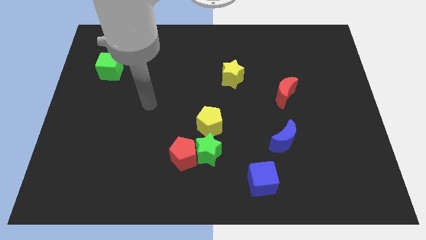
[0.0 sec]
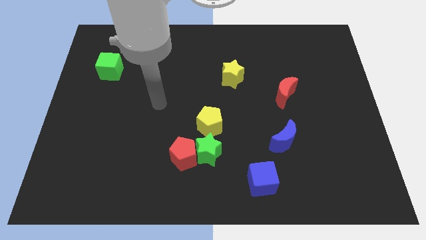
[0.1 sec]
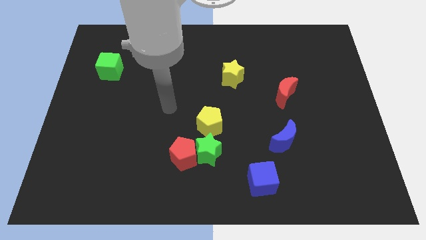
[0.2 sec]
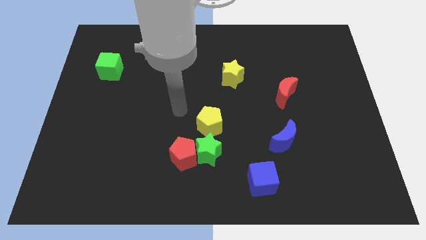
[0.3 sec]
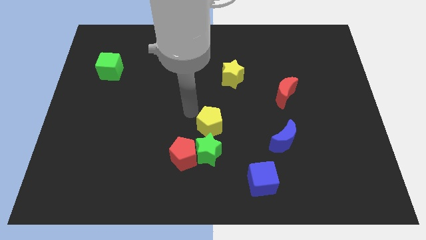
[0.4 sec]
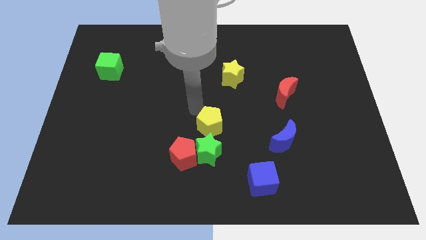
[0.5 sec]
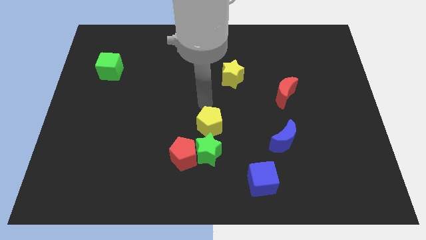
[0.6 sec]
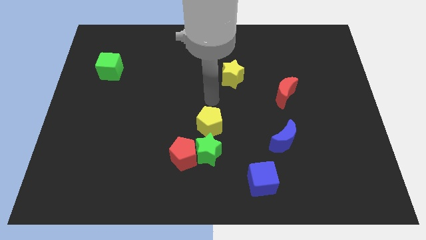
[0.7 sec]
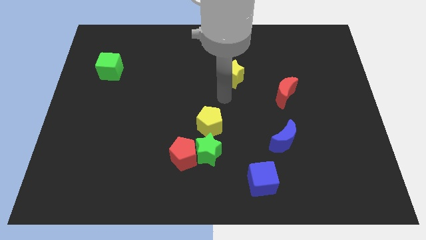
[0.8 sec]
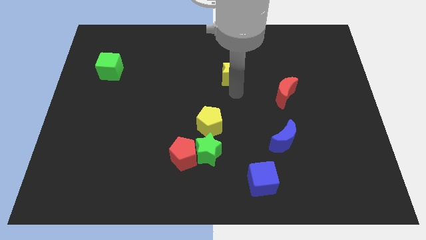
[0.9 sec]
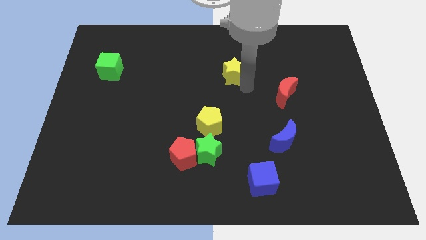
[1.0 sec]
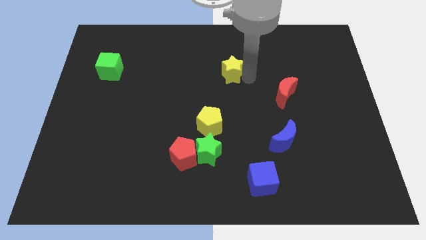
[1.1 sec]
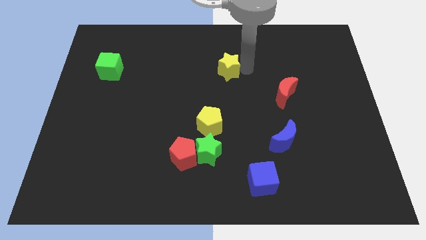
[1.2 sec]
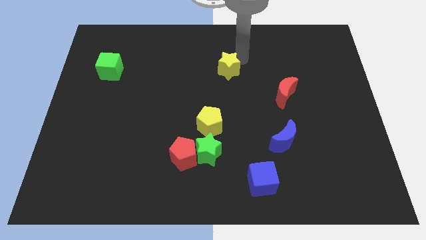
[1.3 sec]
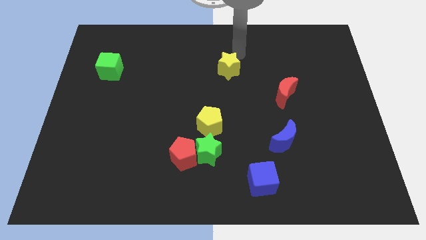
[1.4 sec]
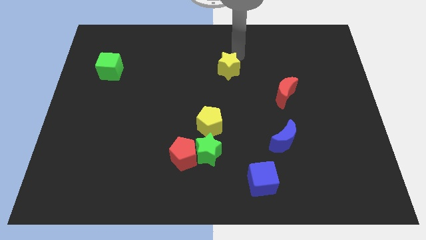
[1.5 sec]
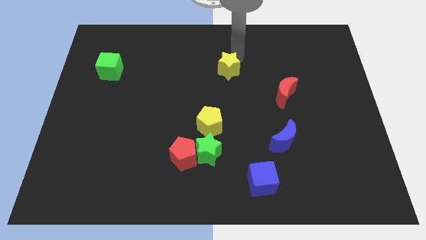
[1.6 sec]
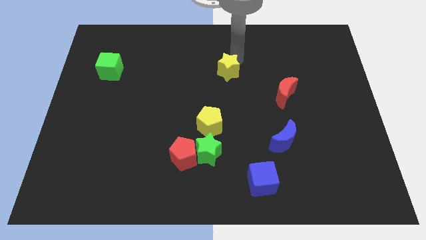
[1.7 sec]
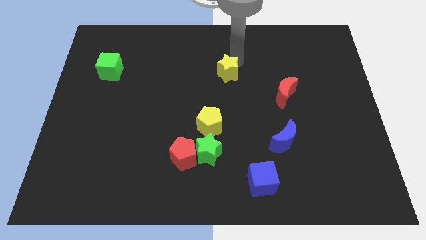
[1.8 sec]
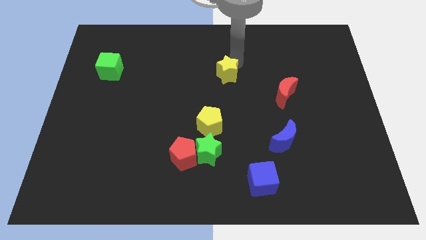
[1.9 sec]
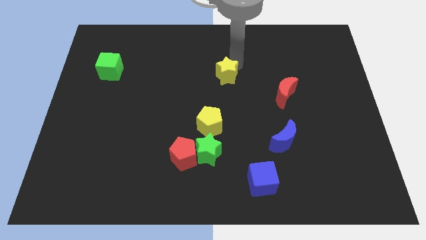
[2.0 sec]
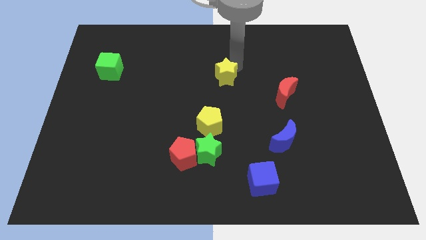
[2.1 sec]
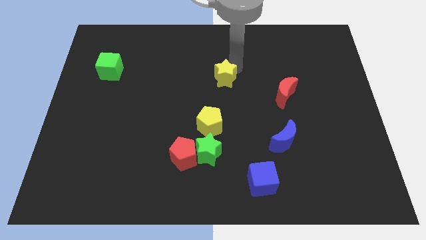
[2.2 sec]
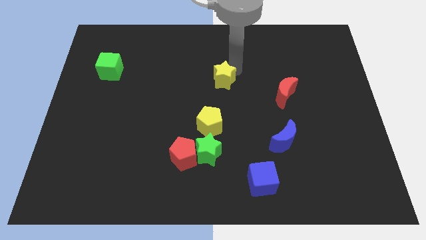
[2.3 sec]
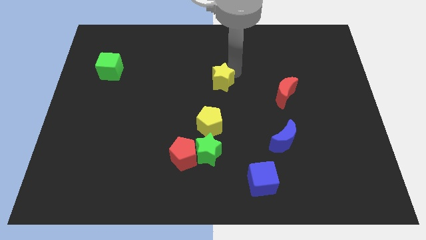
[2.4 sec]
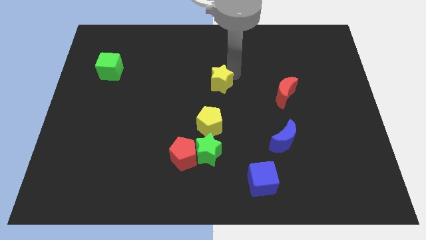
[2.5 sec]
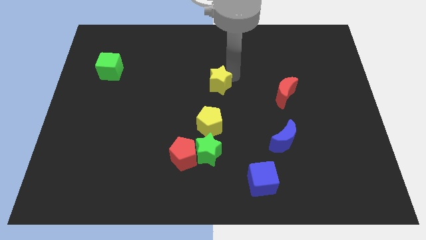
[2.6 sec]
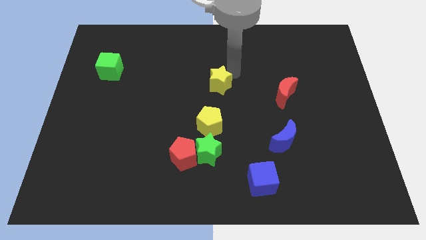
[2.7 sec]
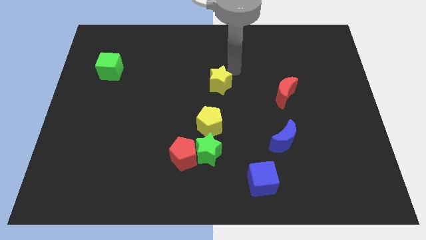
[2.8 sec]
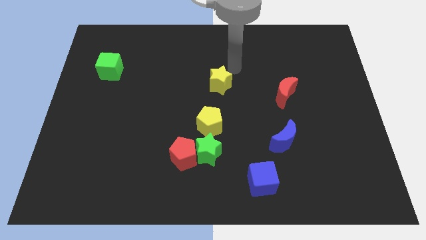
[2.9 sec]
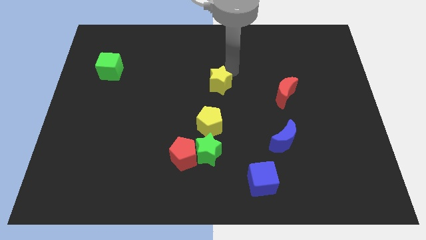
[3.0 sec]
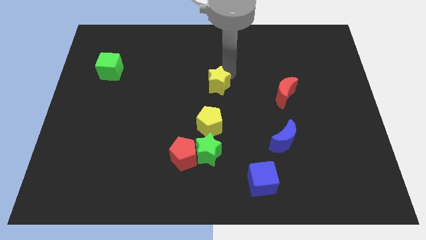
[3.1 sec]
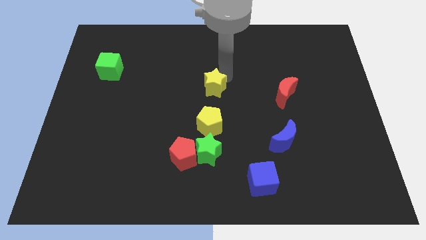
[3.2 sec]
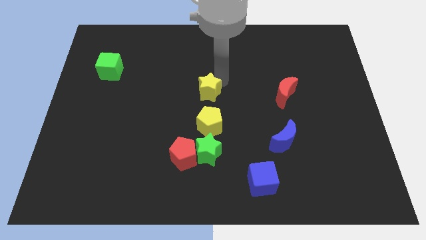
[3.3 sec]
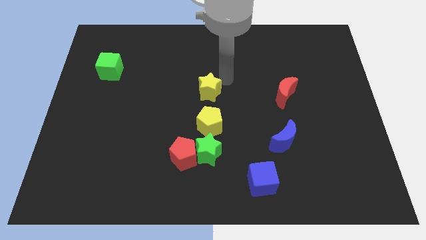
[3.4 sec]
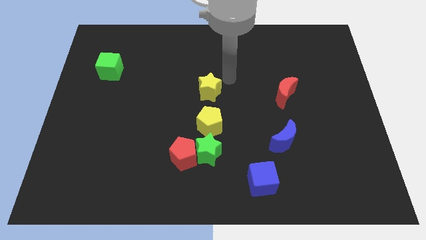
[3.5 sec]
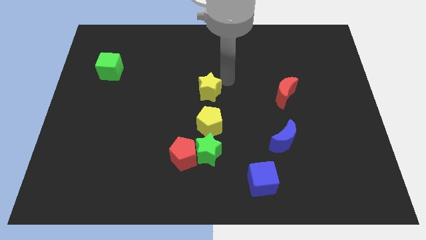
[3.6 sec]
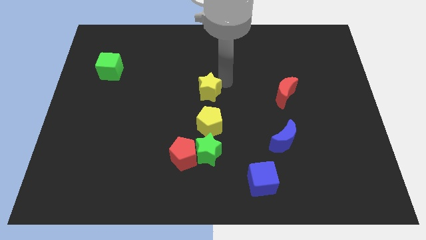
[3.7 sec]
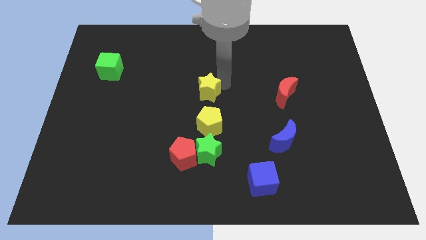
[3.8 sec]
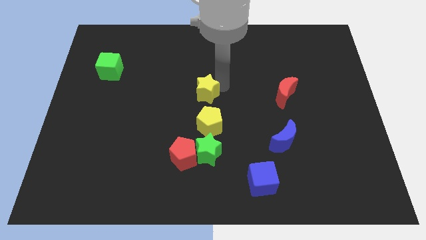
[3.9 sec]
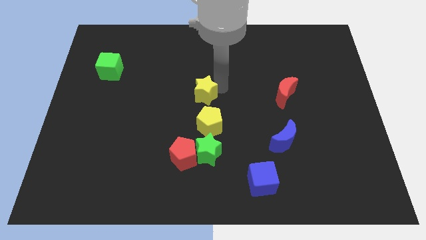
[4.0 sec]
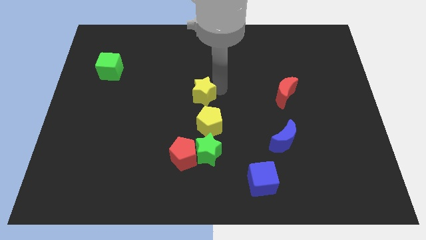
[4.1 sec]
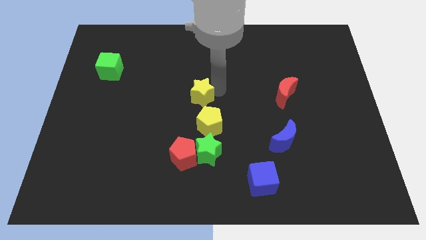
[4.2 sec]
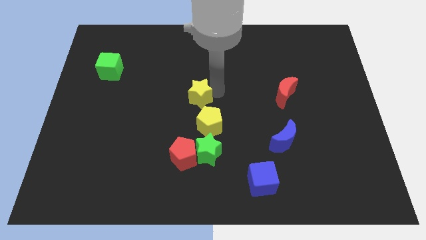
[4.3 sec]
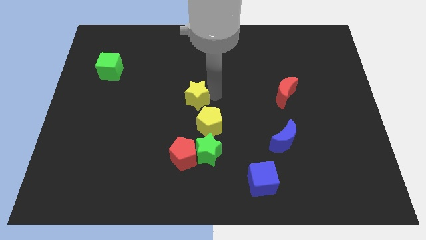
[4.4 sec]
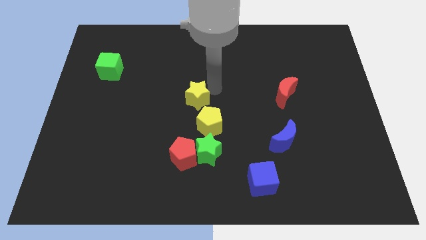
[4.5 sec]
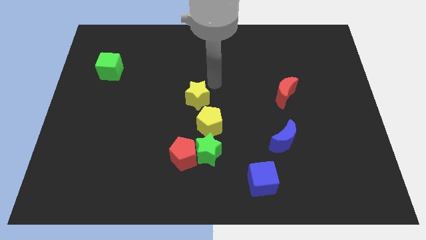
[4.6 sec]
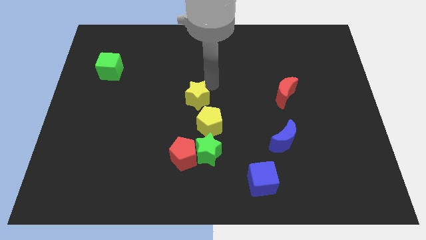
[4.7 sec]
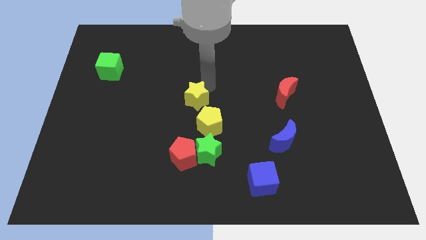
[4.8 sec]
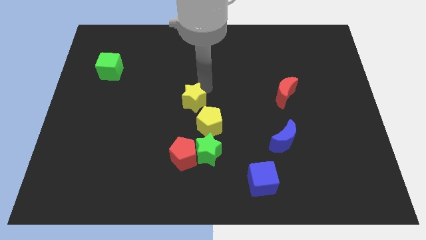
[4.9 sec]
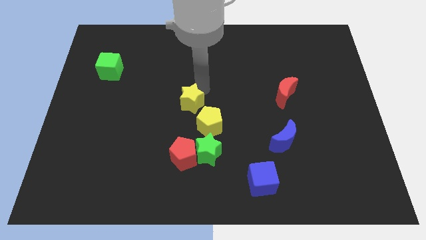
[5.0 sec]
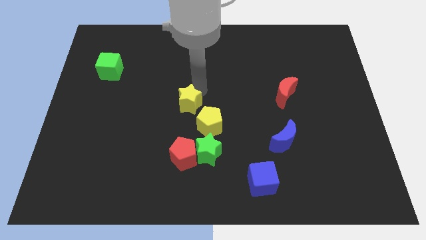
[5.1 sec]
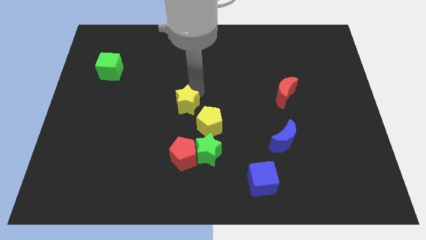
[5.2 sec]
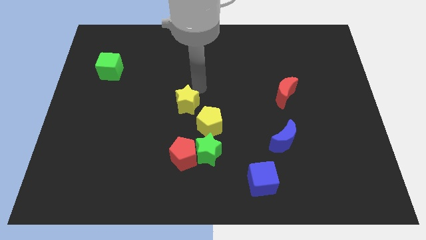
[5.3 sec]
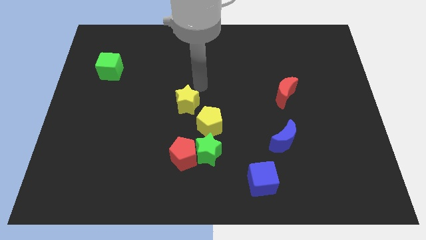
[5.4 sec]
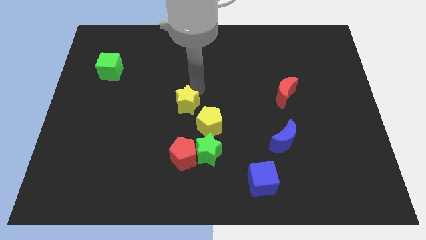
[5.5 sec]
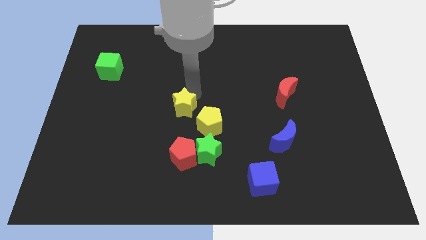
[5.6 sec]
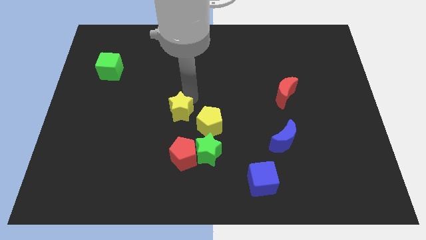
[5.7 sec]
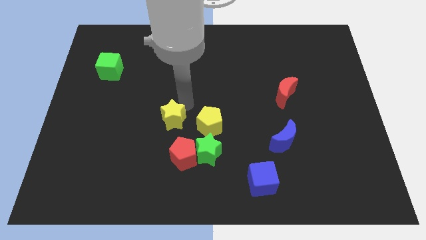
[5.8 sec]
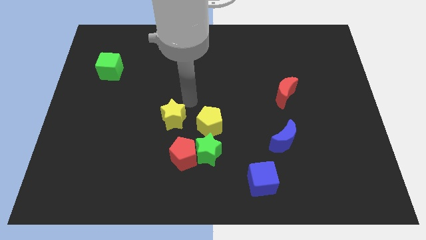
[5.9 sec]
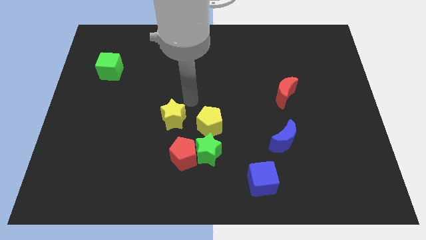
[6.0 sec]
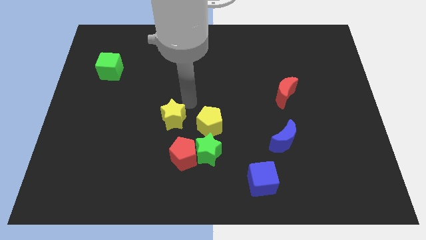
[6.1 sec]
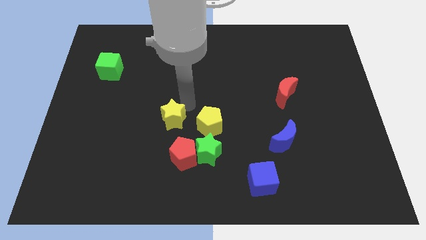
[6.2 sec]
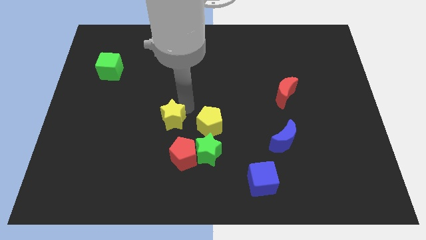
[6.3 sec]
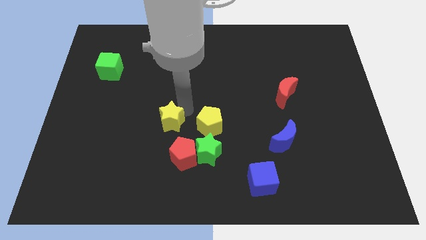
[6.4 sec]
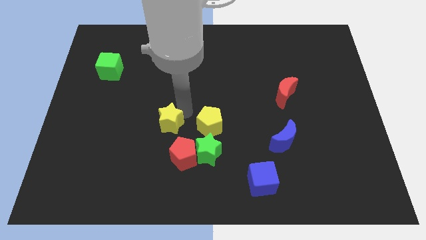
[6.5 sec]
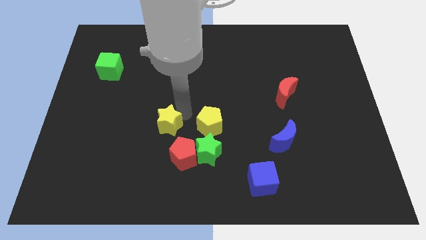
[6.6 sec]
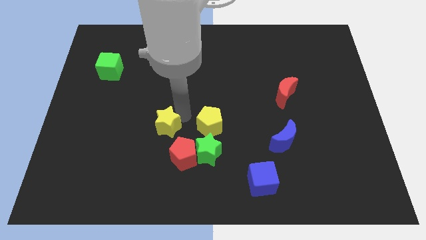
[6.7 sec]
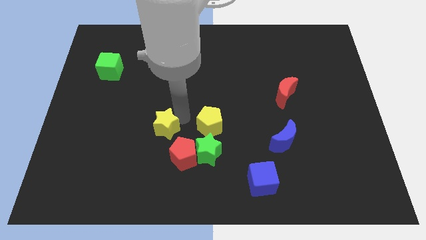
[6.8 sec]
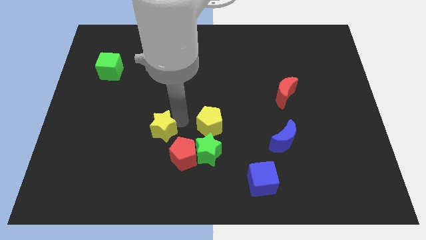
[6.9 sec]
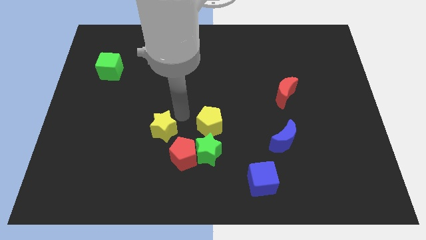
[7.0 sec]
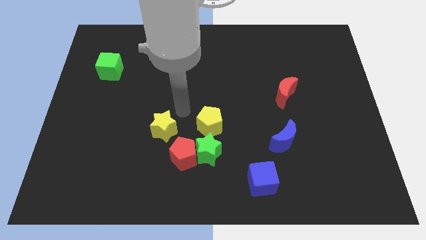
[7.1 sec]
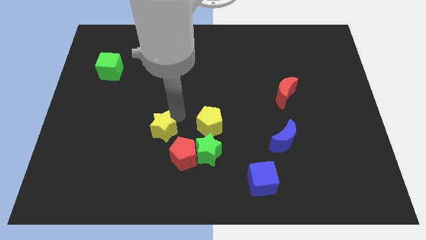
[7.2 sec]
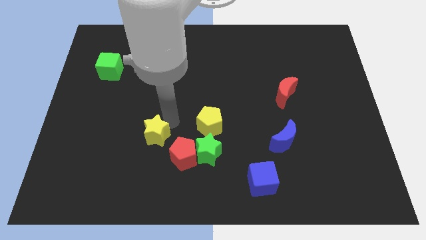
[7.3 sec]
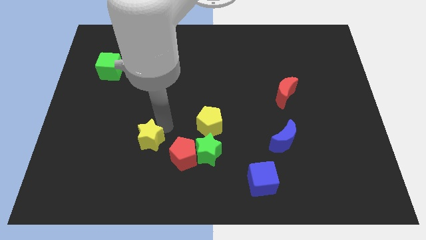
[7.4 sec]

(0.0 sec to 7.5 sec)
slide the yellow star to the left side of the red pentagon

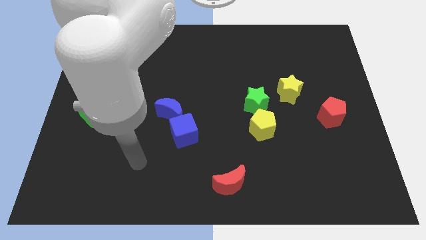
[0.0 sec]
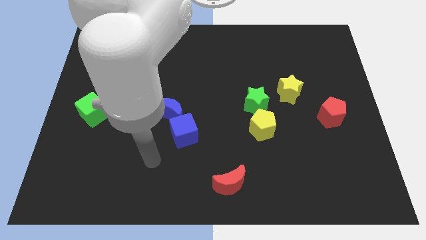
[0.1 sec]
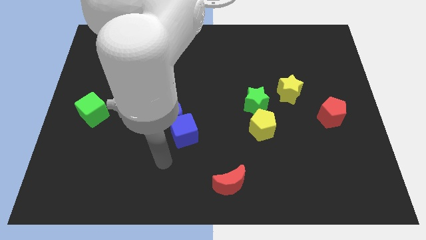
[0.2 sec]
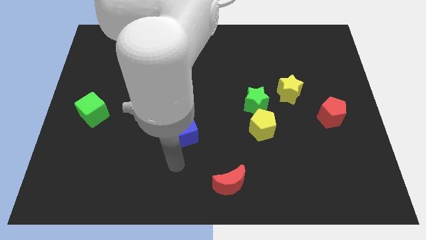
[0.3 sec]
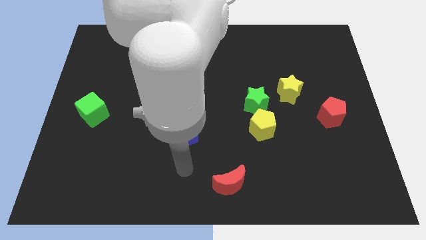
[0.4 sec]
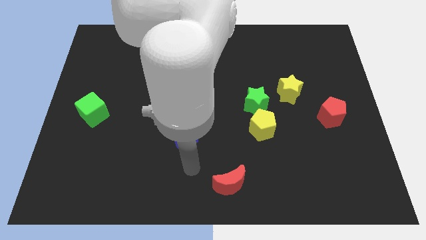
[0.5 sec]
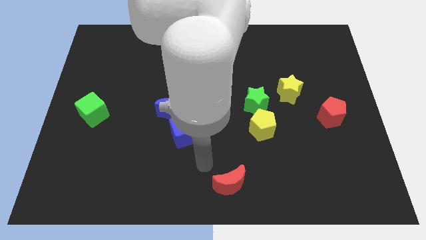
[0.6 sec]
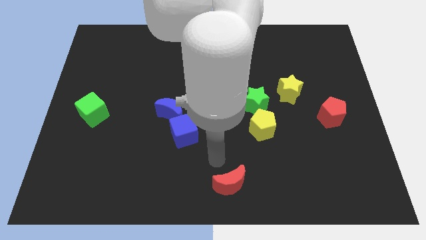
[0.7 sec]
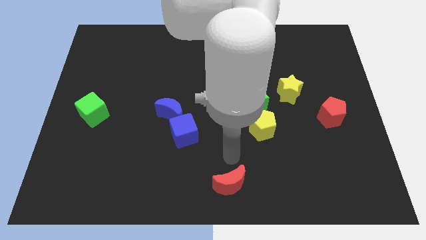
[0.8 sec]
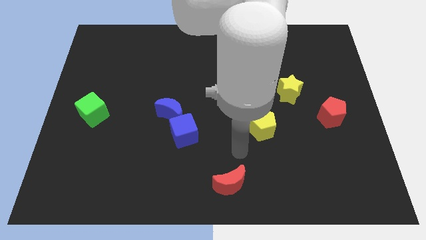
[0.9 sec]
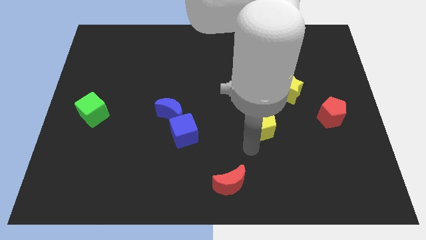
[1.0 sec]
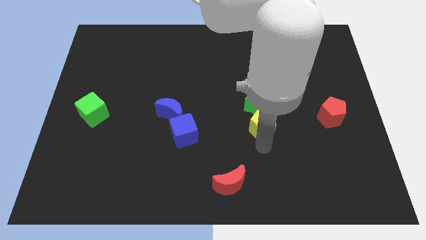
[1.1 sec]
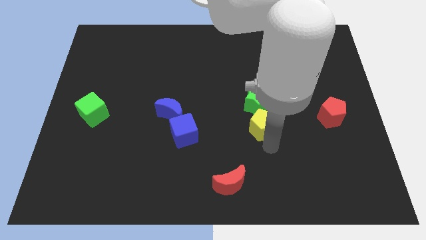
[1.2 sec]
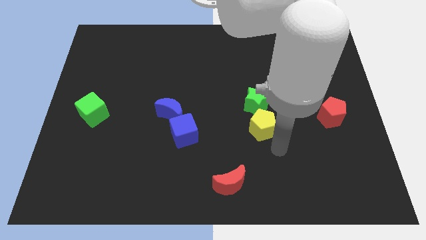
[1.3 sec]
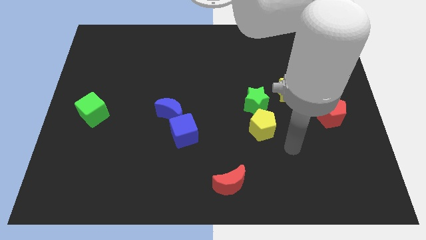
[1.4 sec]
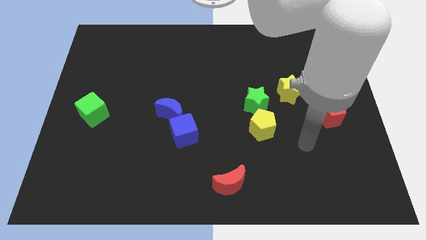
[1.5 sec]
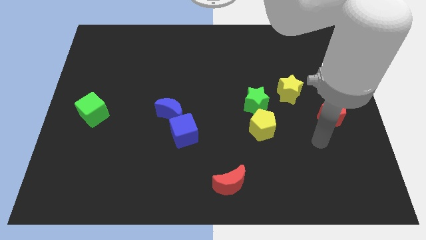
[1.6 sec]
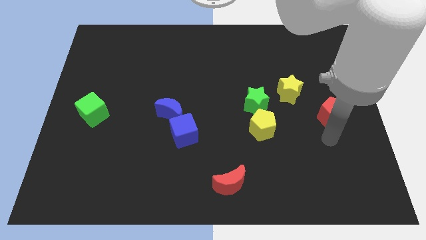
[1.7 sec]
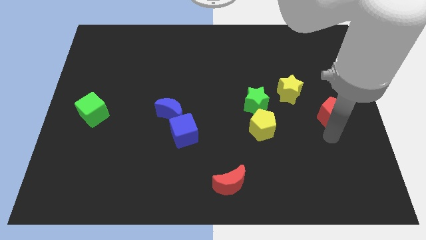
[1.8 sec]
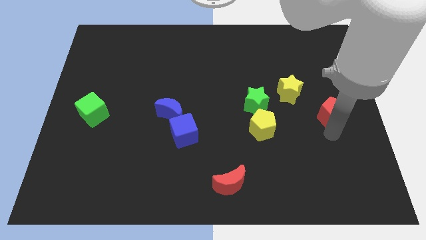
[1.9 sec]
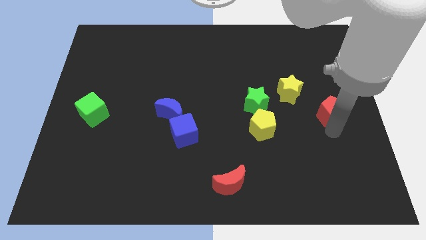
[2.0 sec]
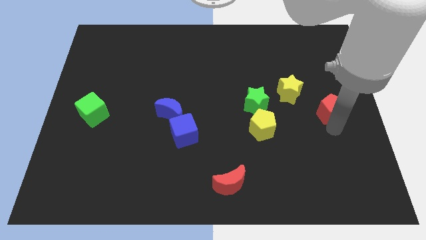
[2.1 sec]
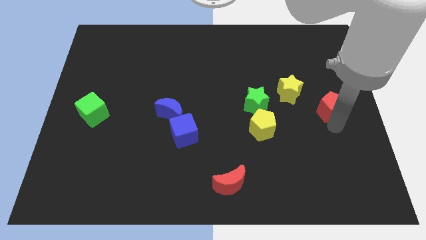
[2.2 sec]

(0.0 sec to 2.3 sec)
push the red pentagon to the right side of the yellow star